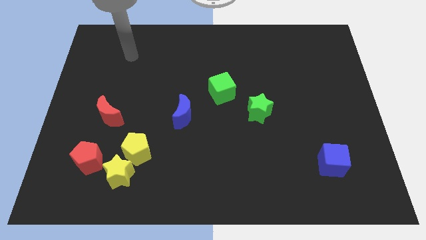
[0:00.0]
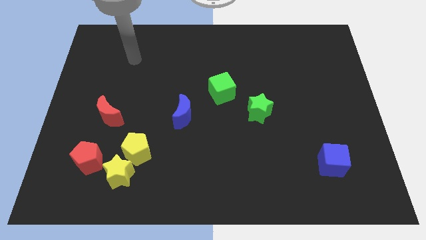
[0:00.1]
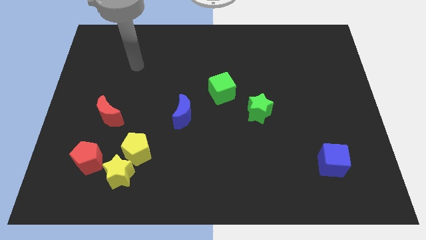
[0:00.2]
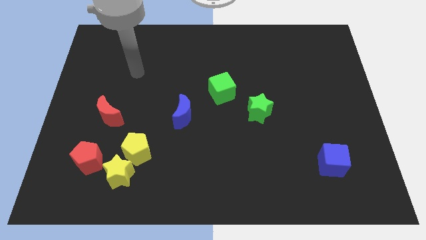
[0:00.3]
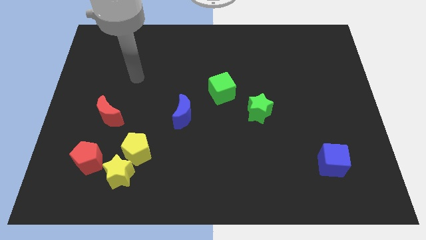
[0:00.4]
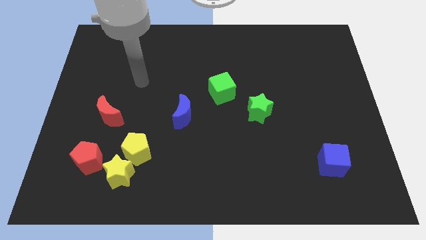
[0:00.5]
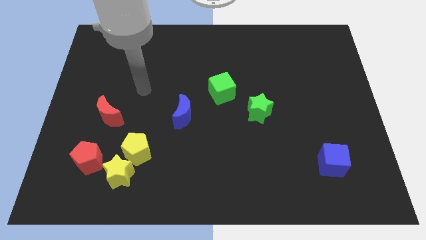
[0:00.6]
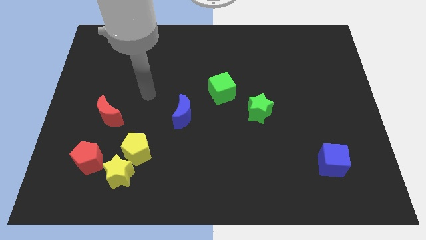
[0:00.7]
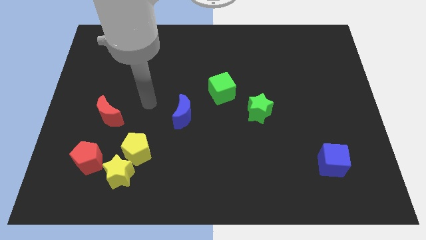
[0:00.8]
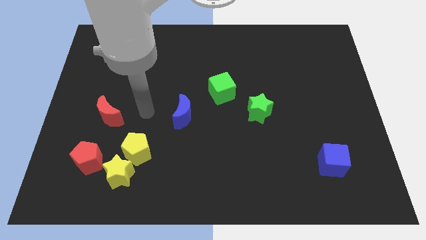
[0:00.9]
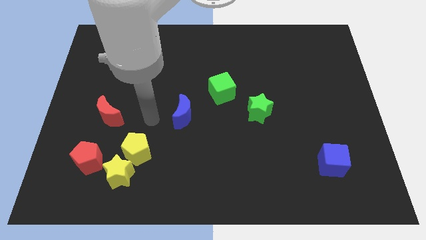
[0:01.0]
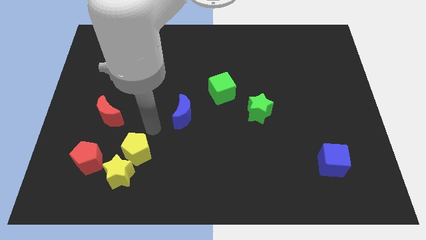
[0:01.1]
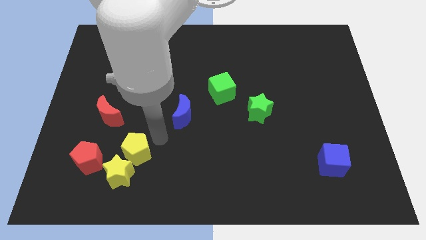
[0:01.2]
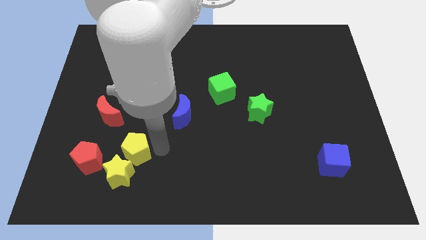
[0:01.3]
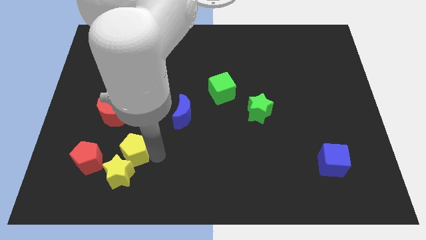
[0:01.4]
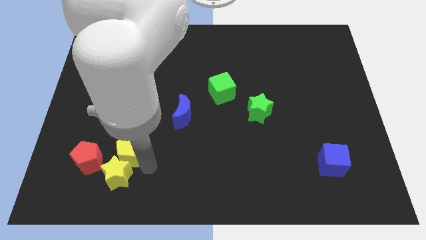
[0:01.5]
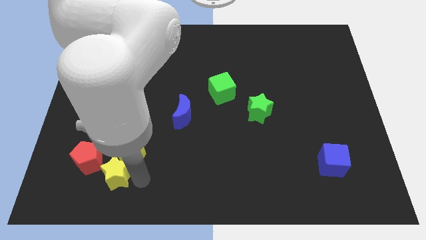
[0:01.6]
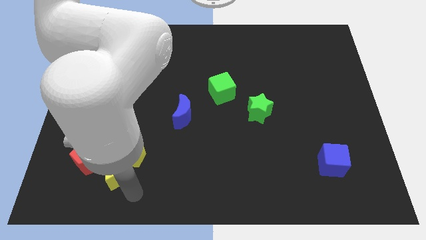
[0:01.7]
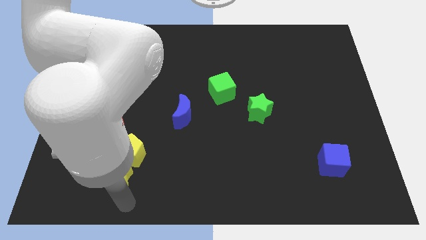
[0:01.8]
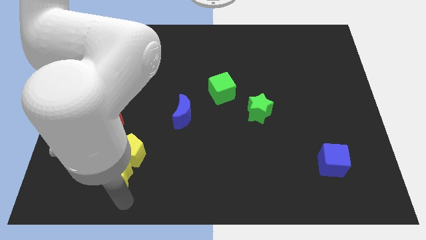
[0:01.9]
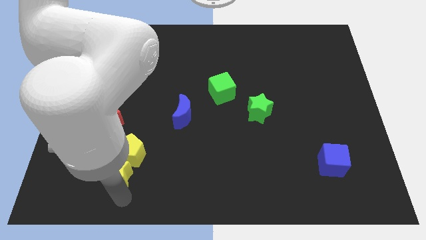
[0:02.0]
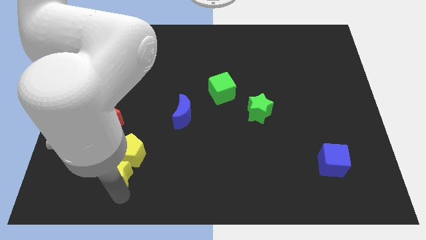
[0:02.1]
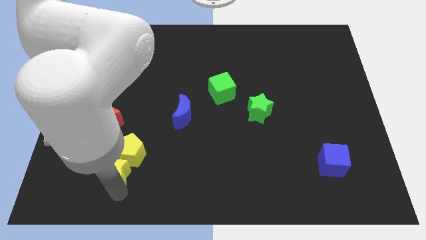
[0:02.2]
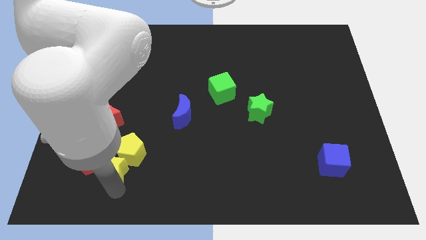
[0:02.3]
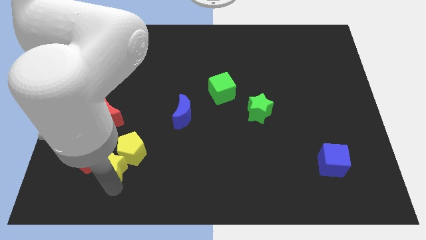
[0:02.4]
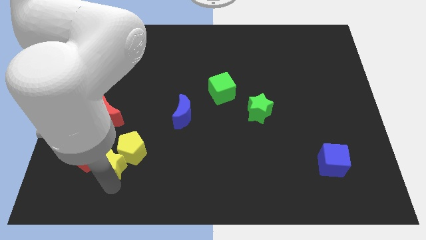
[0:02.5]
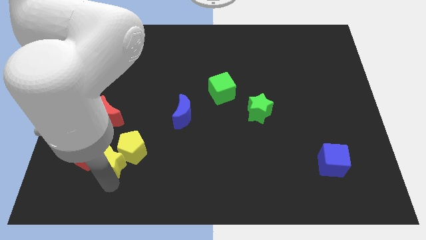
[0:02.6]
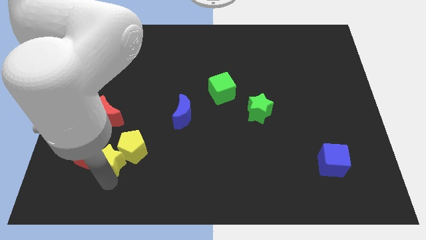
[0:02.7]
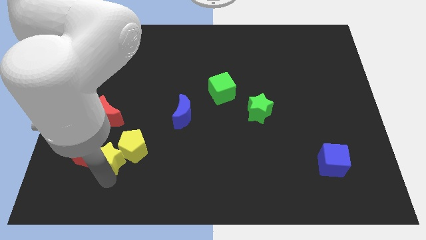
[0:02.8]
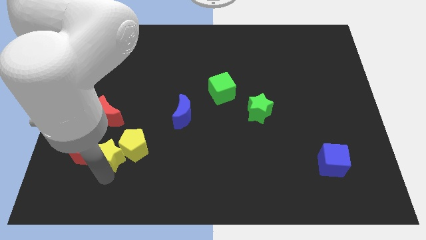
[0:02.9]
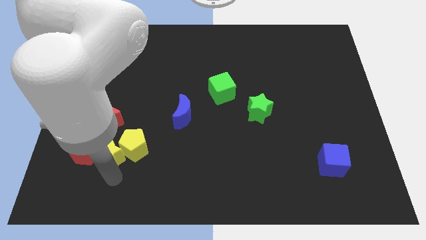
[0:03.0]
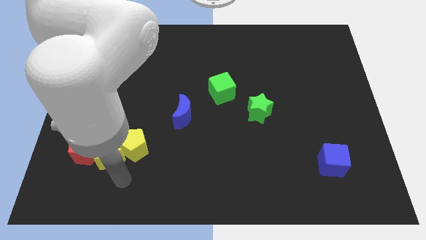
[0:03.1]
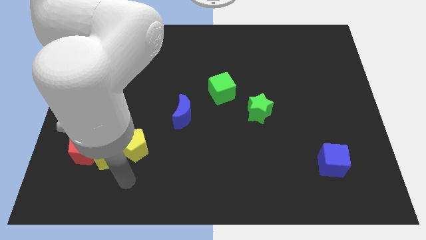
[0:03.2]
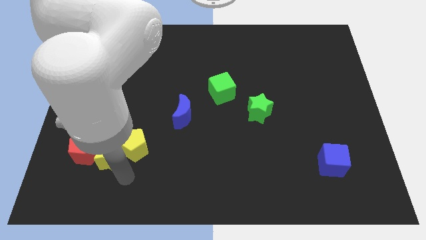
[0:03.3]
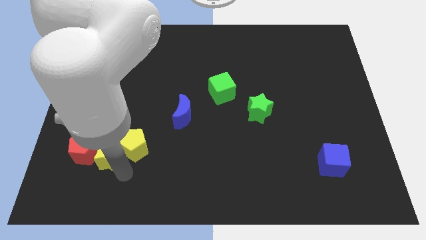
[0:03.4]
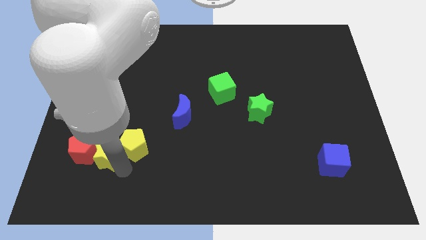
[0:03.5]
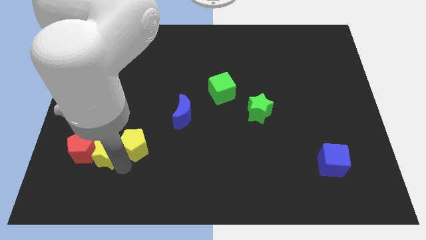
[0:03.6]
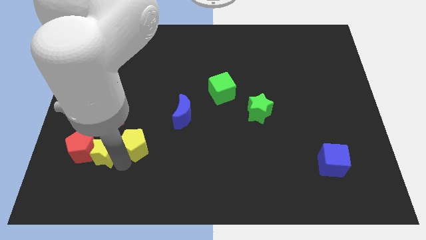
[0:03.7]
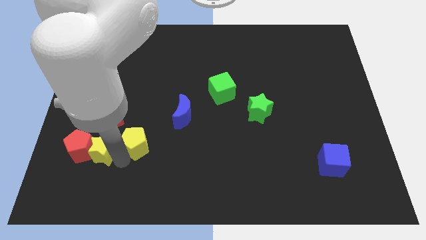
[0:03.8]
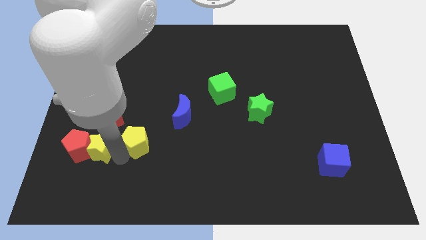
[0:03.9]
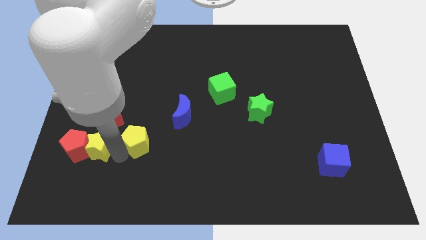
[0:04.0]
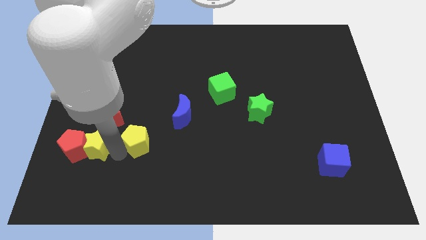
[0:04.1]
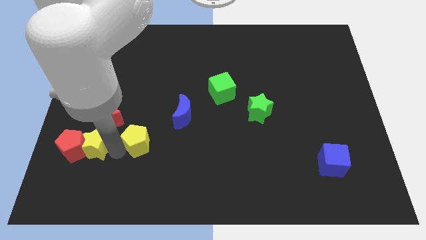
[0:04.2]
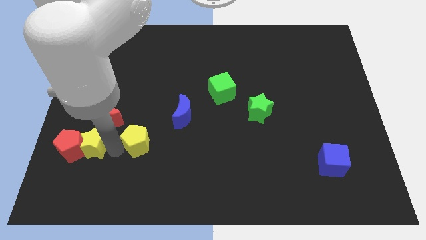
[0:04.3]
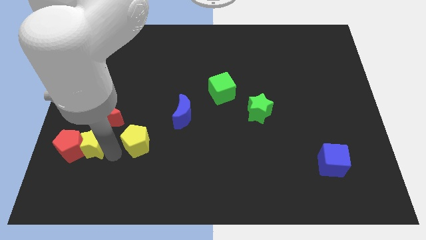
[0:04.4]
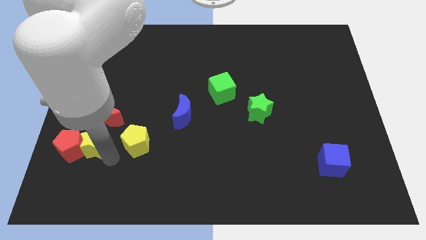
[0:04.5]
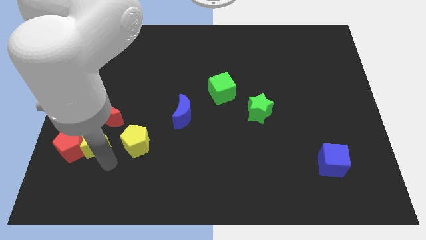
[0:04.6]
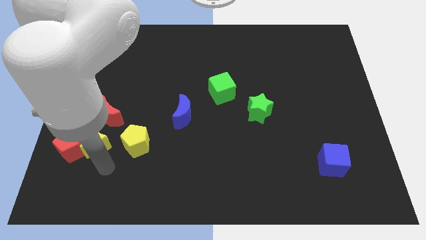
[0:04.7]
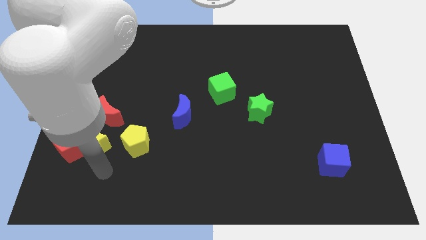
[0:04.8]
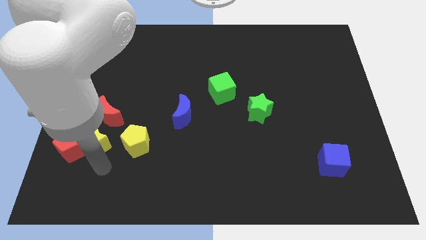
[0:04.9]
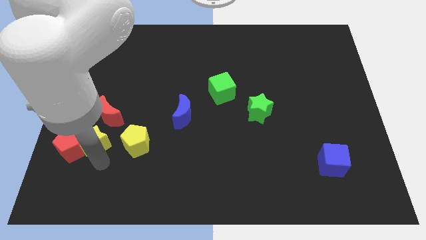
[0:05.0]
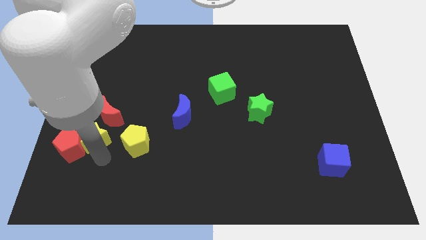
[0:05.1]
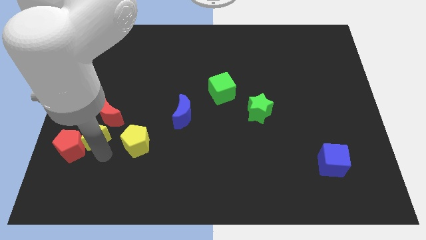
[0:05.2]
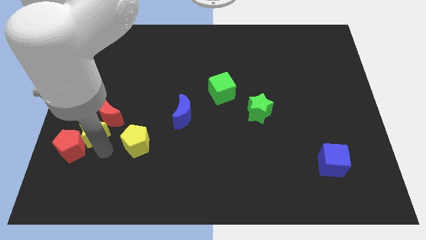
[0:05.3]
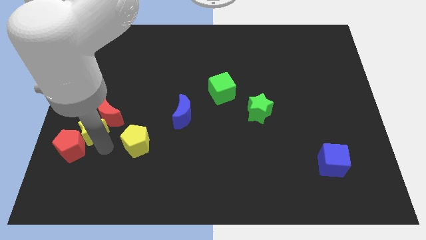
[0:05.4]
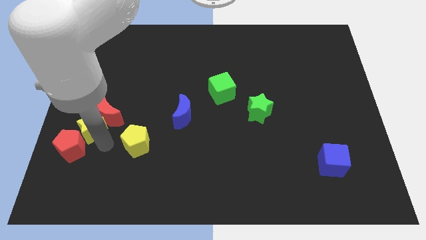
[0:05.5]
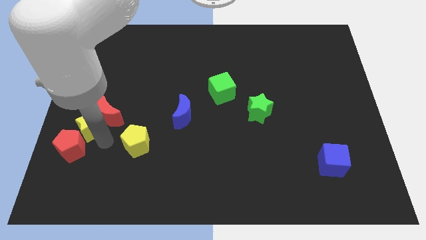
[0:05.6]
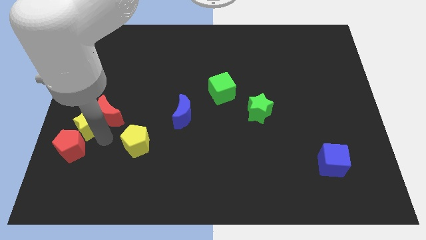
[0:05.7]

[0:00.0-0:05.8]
slide the yellow star to the center left

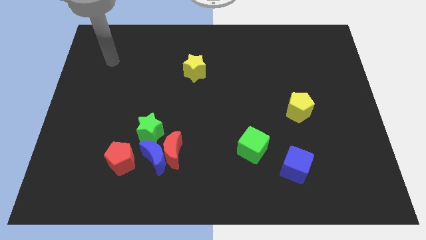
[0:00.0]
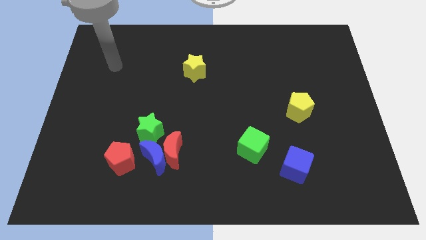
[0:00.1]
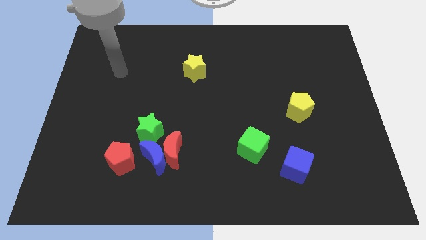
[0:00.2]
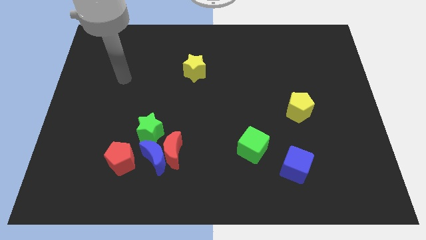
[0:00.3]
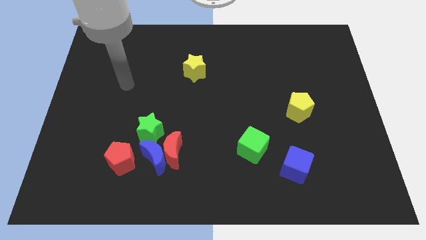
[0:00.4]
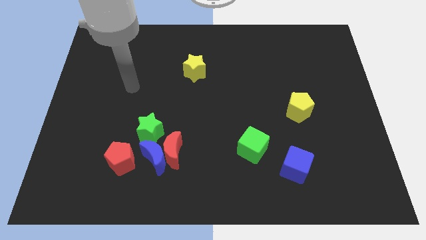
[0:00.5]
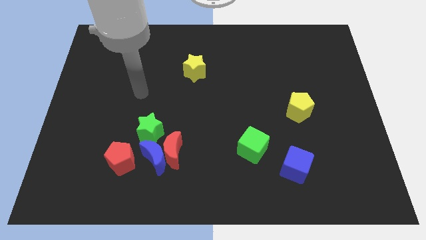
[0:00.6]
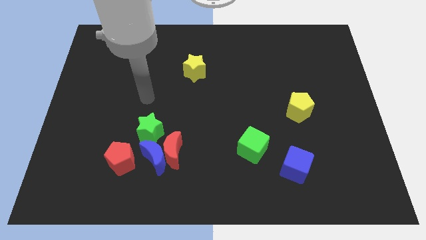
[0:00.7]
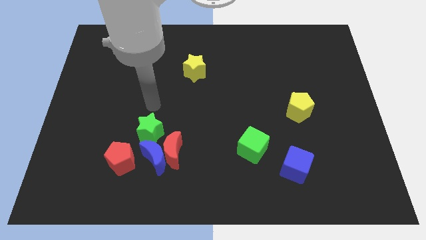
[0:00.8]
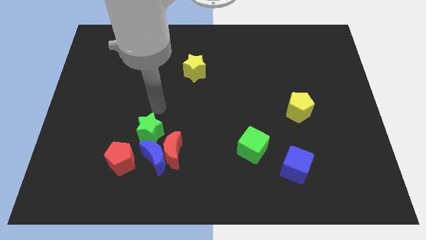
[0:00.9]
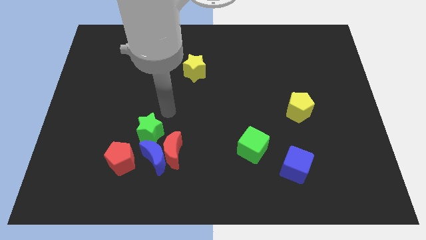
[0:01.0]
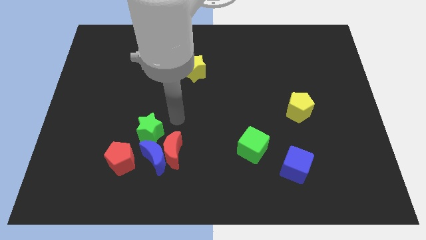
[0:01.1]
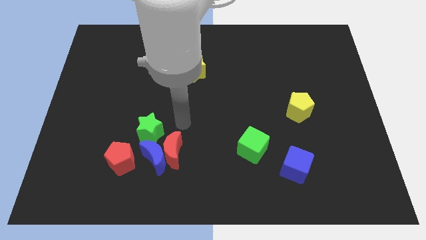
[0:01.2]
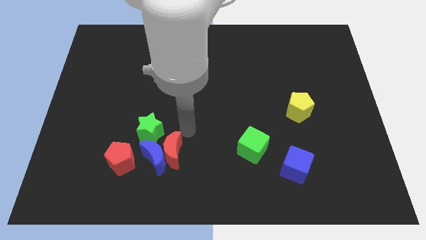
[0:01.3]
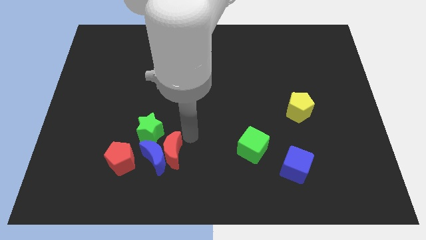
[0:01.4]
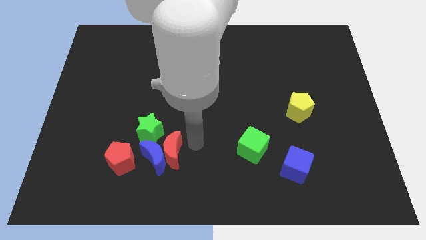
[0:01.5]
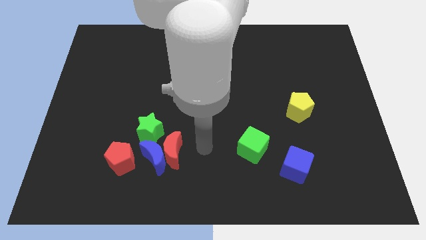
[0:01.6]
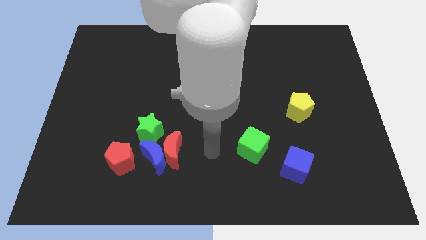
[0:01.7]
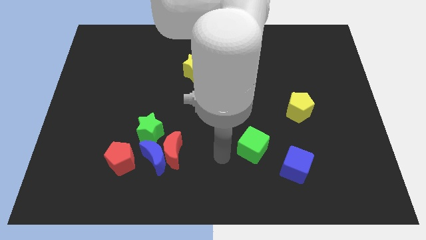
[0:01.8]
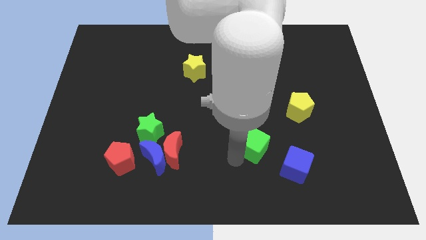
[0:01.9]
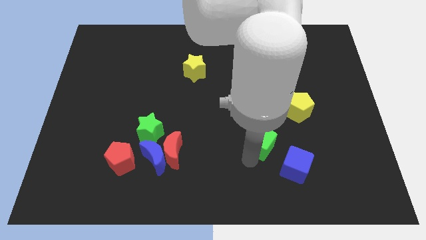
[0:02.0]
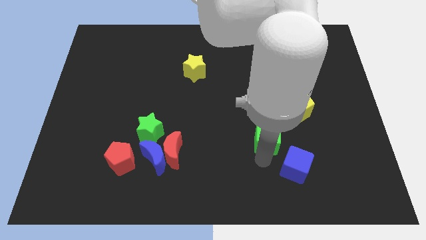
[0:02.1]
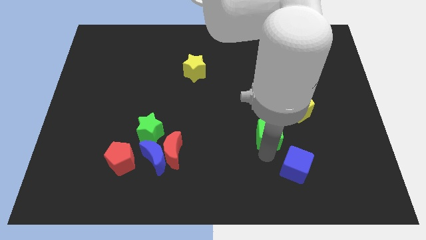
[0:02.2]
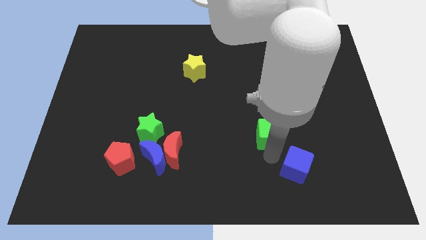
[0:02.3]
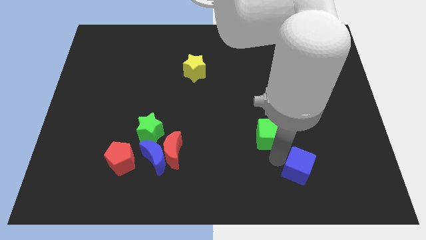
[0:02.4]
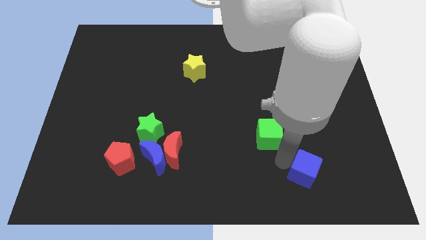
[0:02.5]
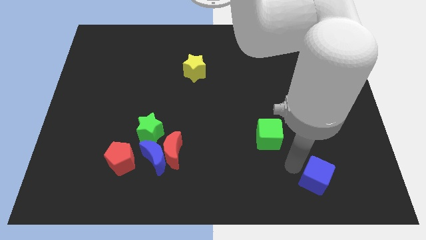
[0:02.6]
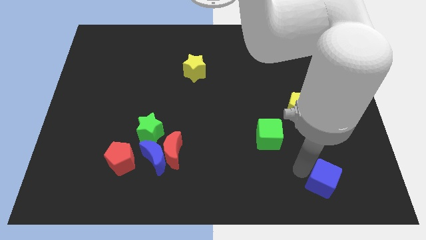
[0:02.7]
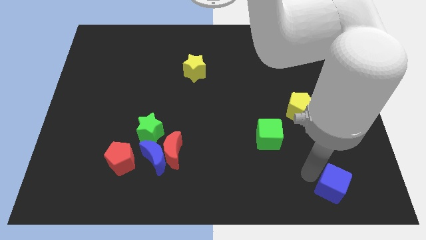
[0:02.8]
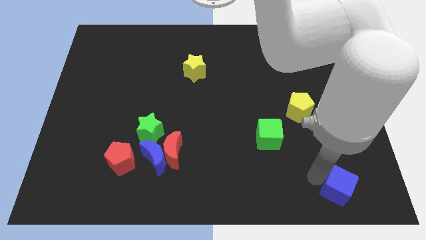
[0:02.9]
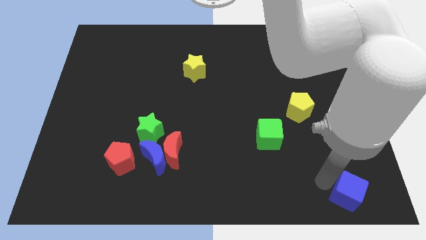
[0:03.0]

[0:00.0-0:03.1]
put the blue cube to the bottom right corner
